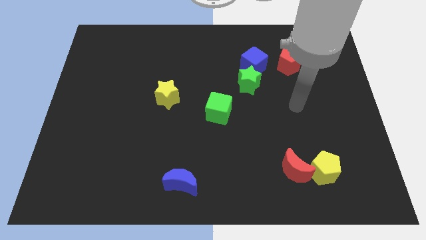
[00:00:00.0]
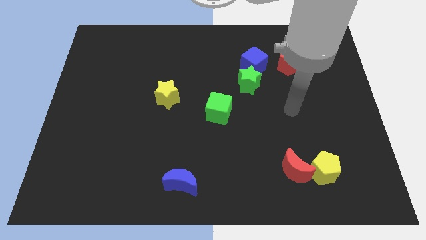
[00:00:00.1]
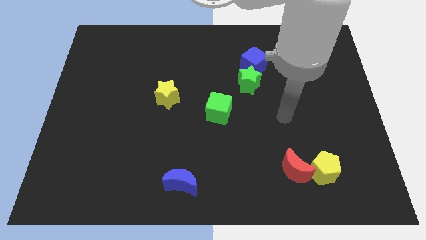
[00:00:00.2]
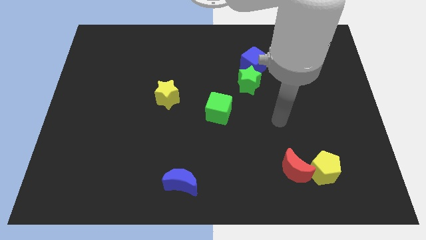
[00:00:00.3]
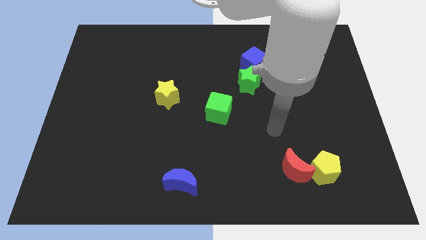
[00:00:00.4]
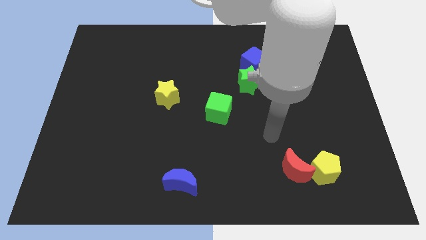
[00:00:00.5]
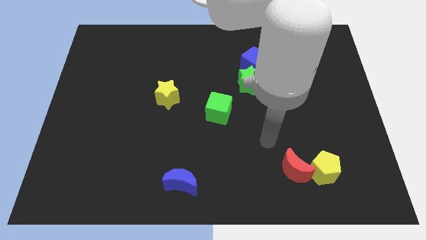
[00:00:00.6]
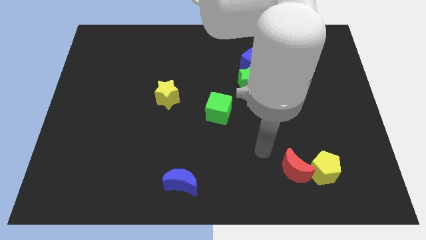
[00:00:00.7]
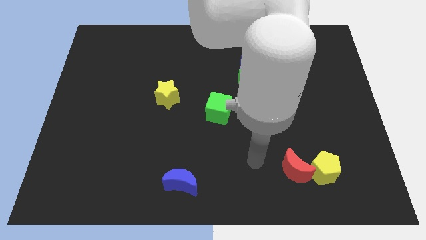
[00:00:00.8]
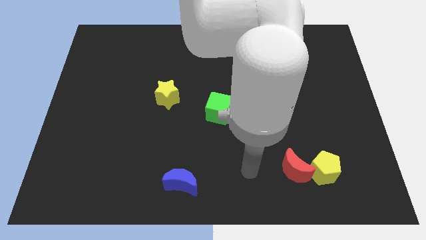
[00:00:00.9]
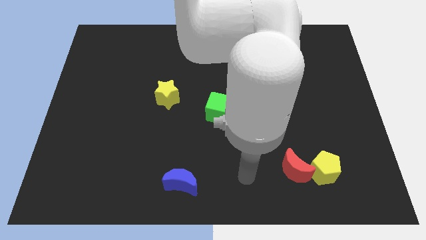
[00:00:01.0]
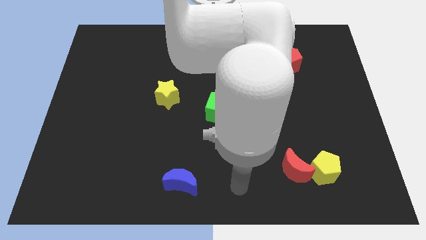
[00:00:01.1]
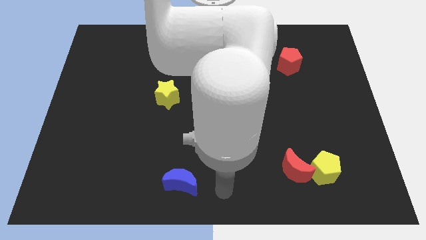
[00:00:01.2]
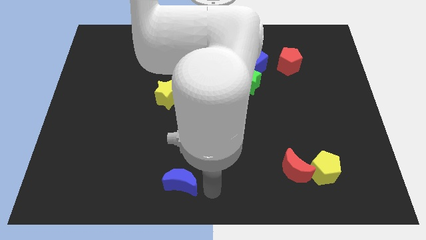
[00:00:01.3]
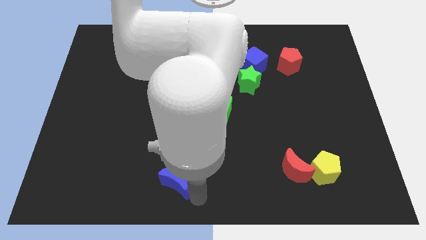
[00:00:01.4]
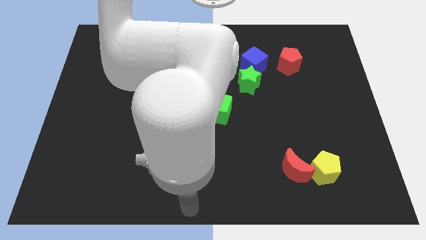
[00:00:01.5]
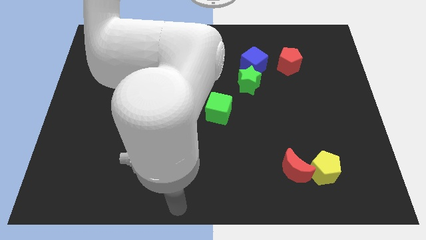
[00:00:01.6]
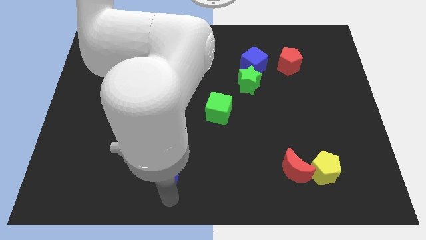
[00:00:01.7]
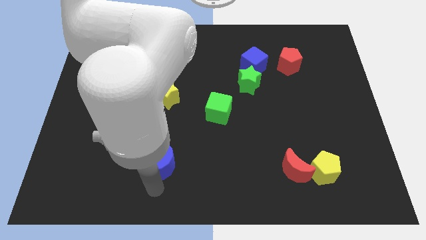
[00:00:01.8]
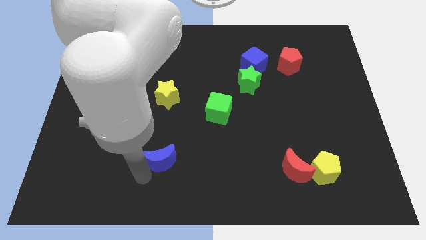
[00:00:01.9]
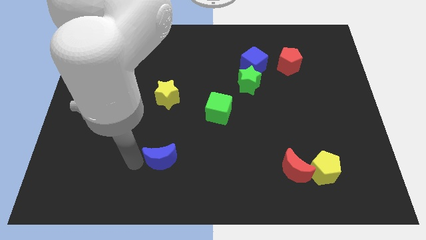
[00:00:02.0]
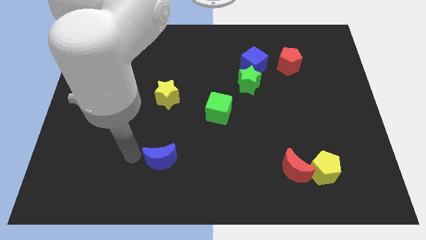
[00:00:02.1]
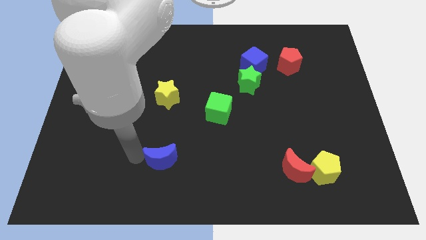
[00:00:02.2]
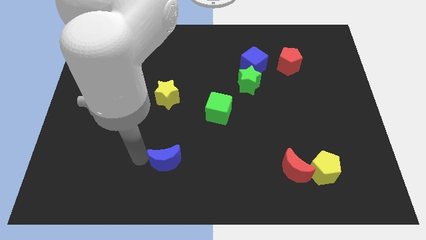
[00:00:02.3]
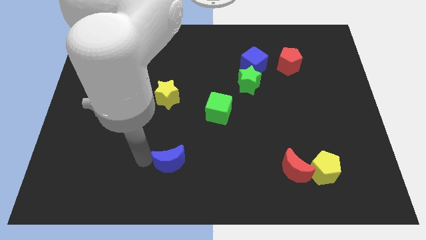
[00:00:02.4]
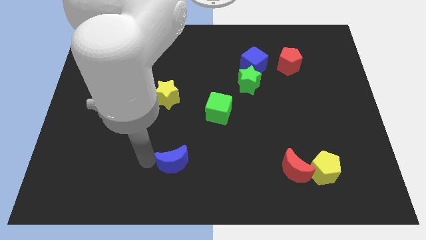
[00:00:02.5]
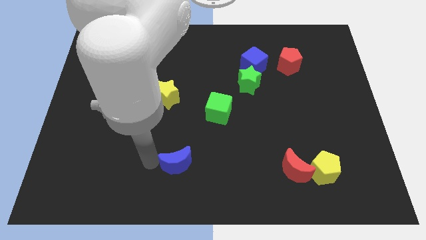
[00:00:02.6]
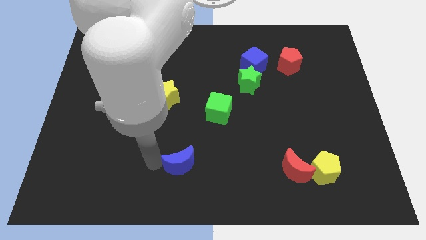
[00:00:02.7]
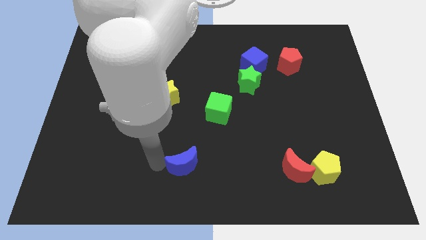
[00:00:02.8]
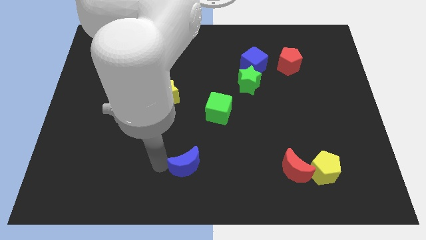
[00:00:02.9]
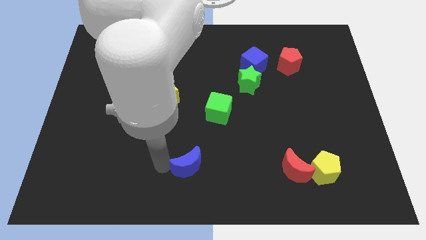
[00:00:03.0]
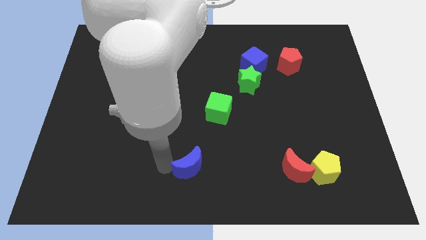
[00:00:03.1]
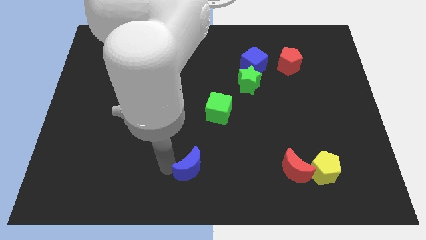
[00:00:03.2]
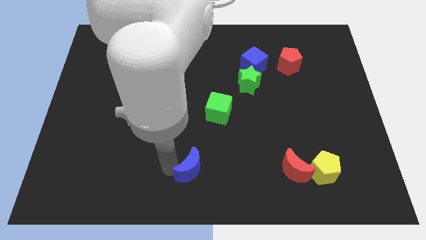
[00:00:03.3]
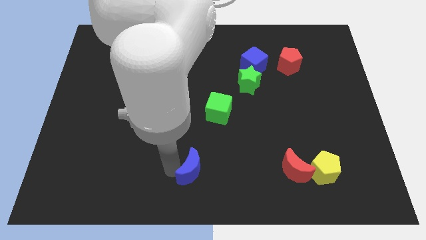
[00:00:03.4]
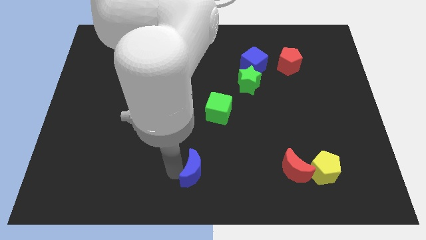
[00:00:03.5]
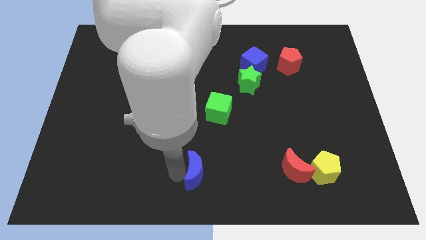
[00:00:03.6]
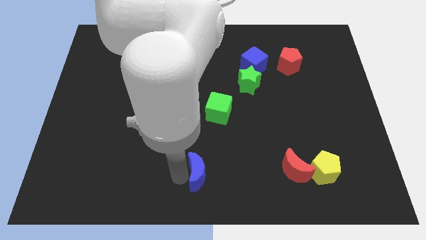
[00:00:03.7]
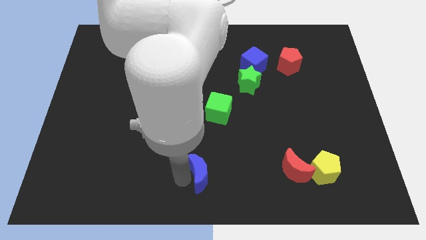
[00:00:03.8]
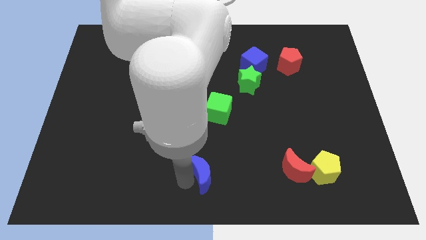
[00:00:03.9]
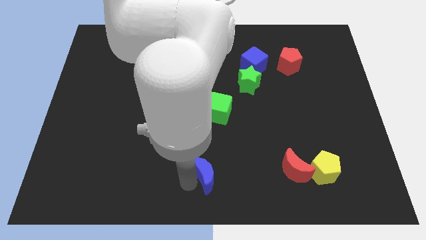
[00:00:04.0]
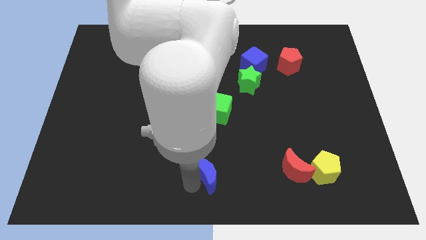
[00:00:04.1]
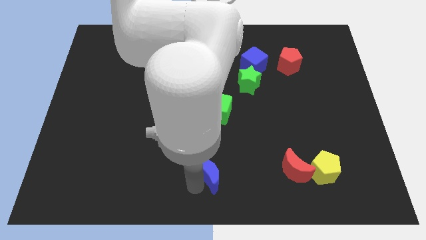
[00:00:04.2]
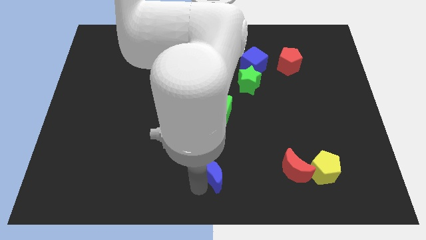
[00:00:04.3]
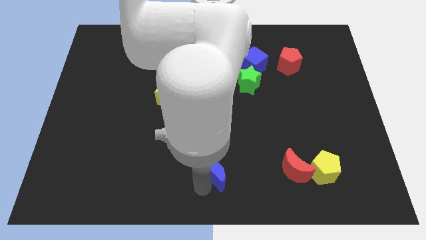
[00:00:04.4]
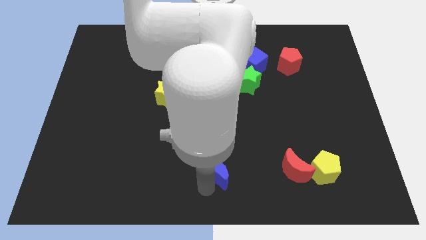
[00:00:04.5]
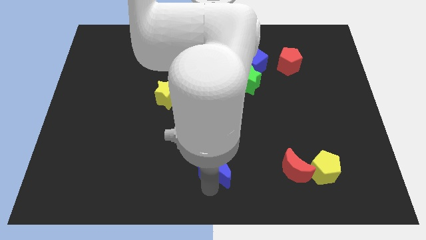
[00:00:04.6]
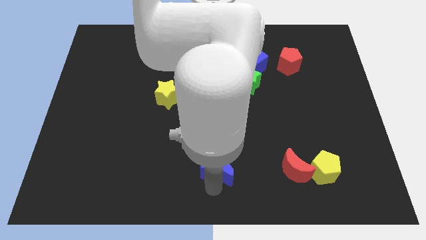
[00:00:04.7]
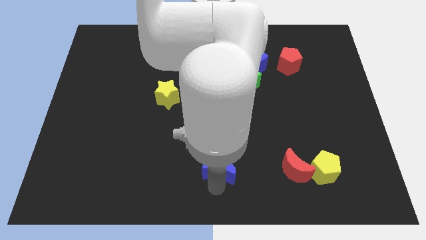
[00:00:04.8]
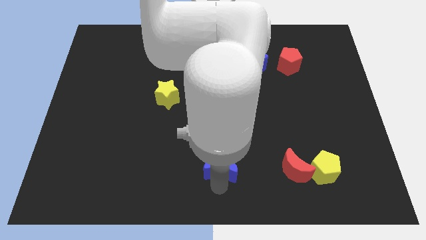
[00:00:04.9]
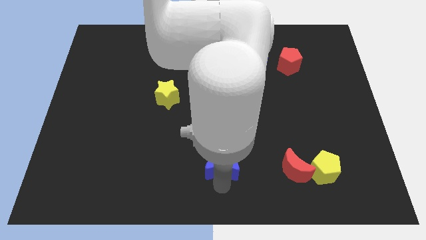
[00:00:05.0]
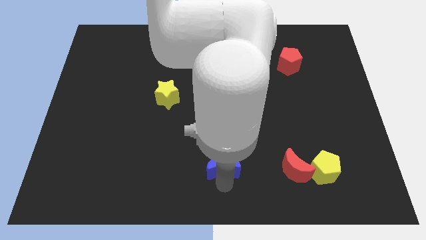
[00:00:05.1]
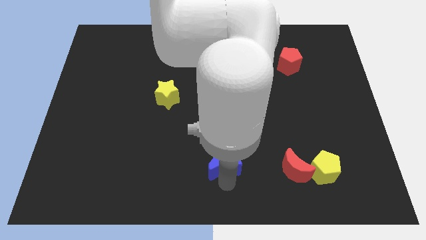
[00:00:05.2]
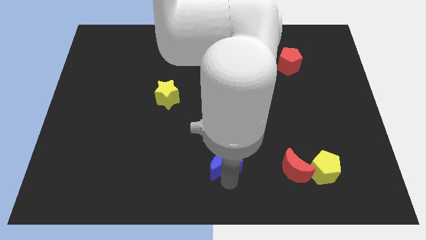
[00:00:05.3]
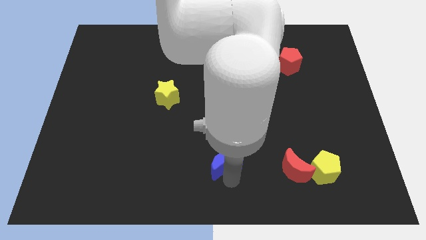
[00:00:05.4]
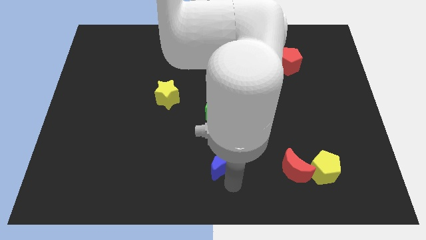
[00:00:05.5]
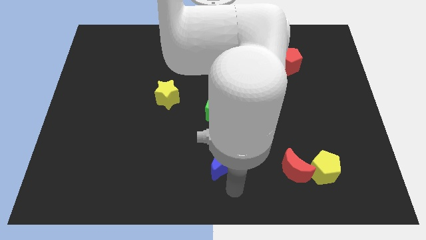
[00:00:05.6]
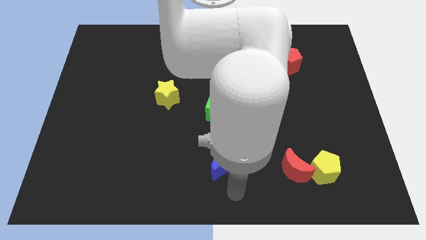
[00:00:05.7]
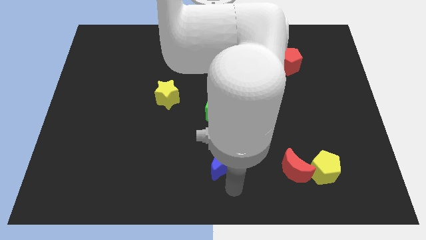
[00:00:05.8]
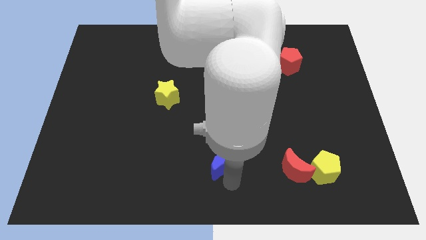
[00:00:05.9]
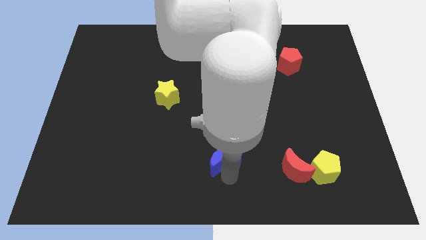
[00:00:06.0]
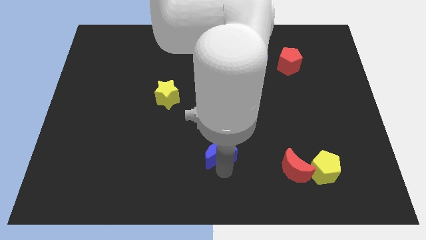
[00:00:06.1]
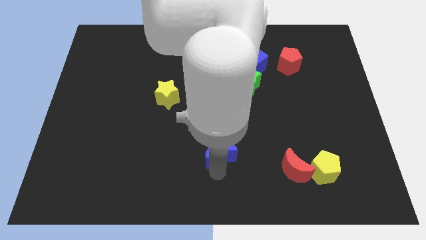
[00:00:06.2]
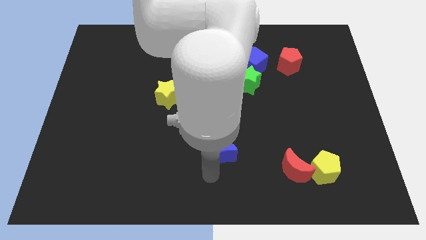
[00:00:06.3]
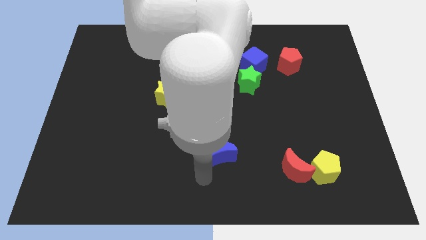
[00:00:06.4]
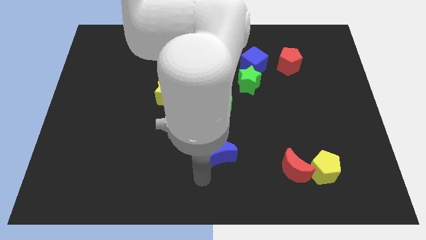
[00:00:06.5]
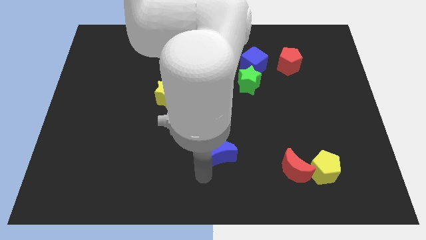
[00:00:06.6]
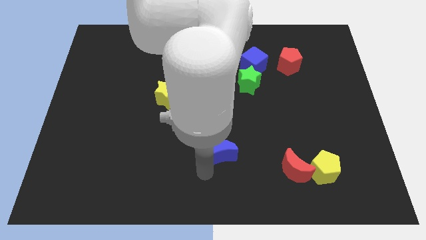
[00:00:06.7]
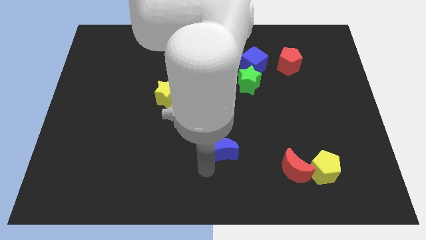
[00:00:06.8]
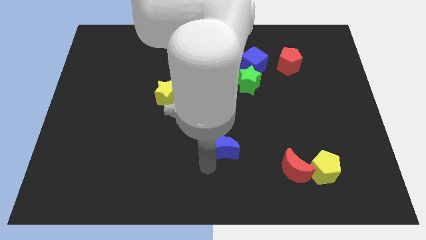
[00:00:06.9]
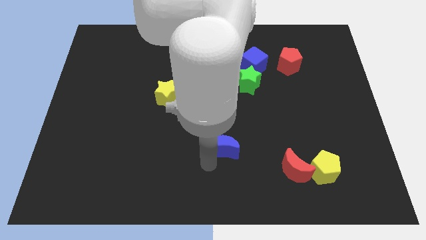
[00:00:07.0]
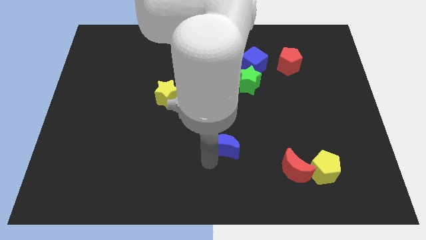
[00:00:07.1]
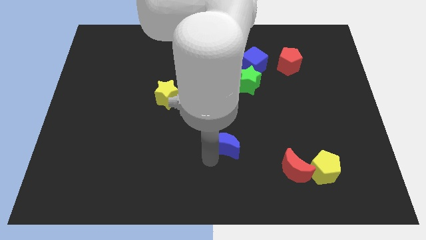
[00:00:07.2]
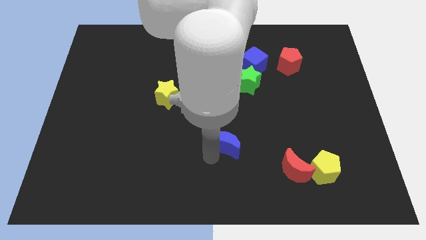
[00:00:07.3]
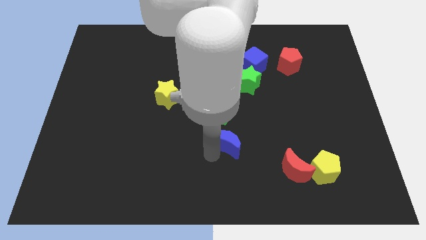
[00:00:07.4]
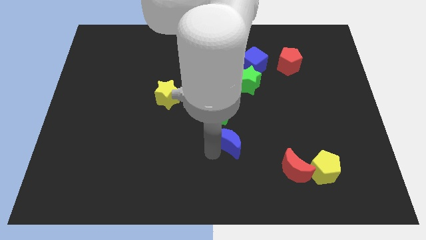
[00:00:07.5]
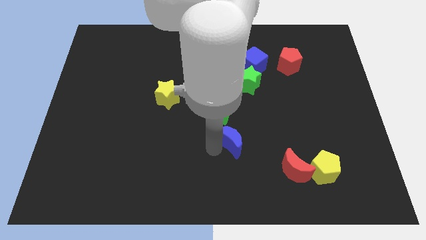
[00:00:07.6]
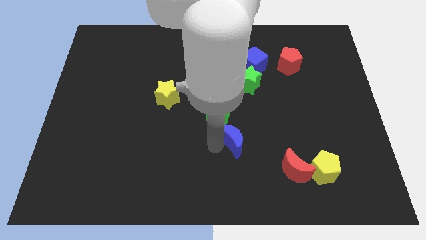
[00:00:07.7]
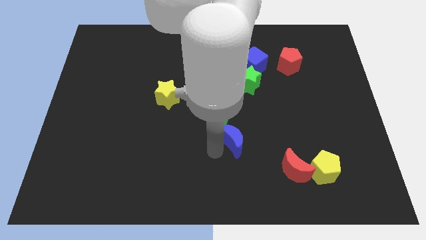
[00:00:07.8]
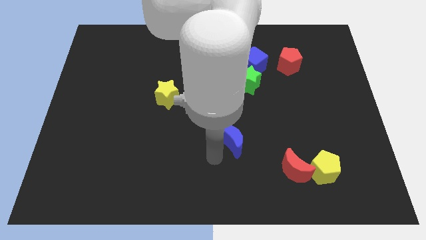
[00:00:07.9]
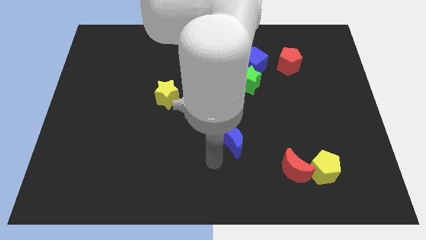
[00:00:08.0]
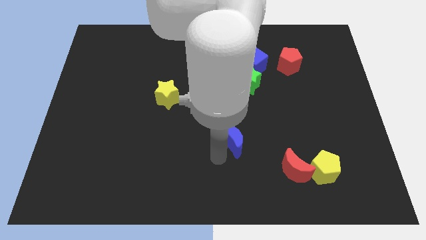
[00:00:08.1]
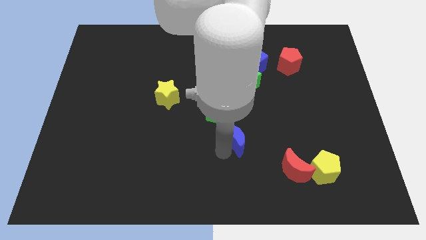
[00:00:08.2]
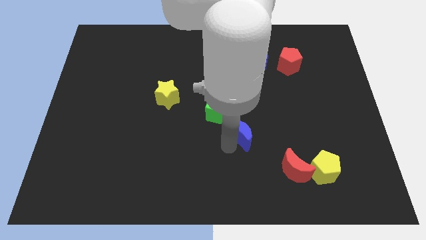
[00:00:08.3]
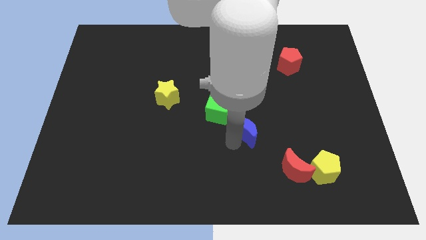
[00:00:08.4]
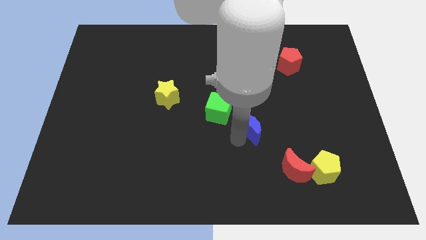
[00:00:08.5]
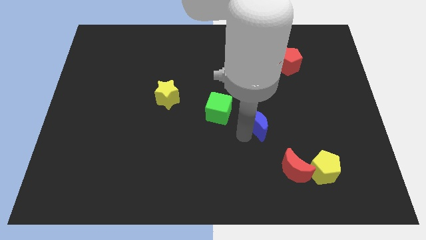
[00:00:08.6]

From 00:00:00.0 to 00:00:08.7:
move the blue moon right of the green cube
